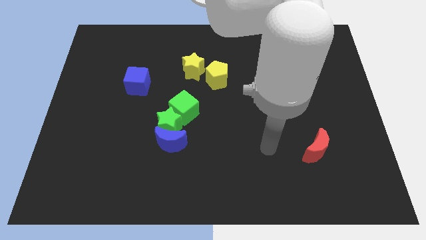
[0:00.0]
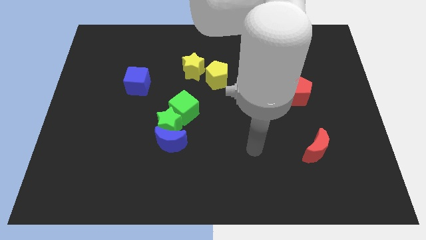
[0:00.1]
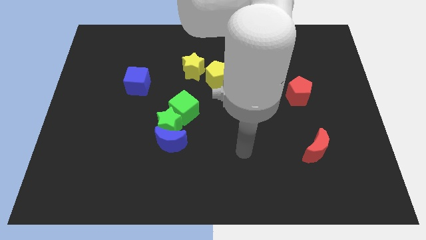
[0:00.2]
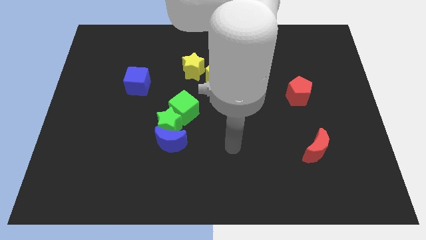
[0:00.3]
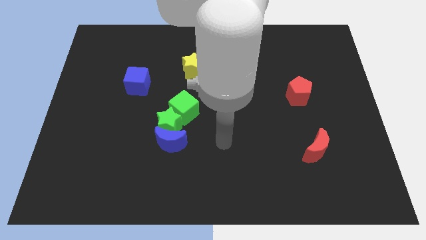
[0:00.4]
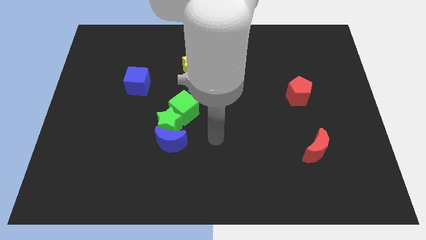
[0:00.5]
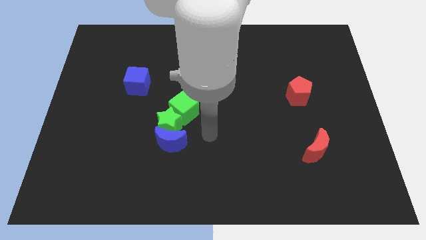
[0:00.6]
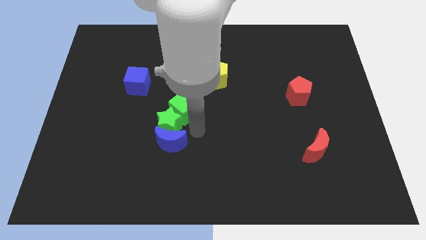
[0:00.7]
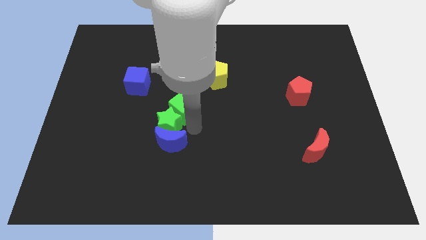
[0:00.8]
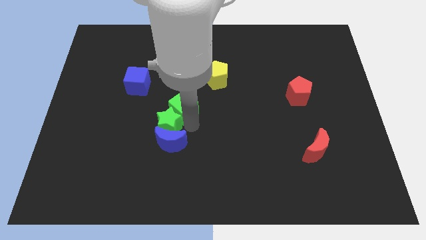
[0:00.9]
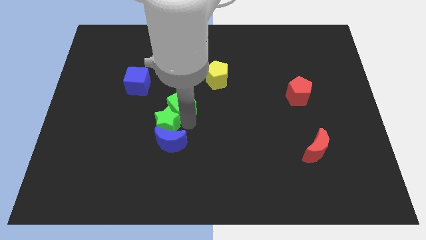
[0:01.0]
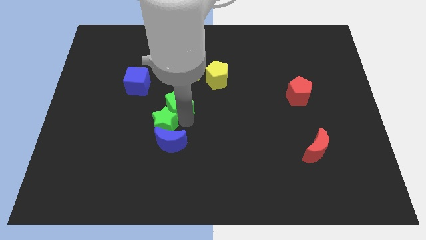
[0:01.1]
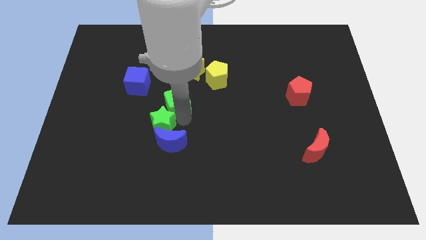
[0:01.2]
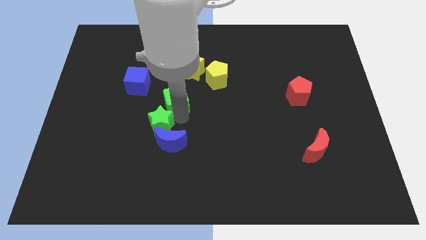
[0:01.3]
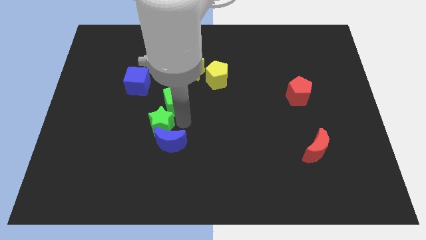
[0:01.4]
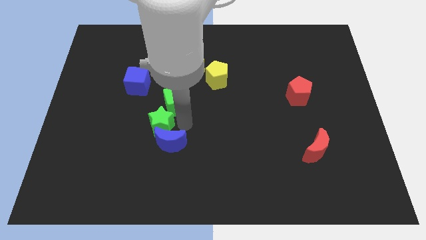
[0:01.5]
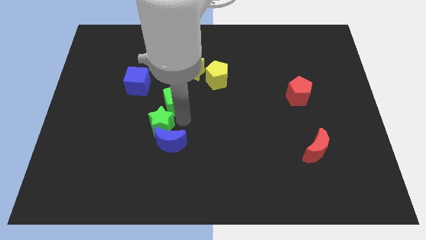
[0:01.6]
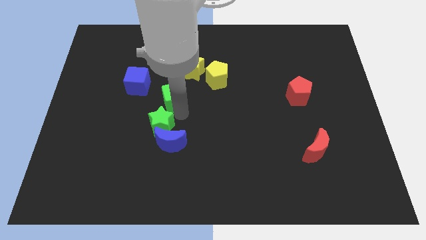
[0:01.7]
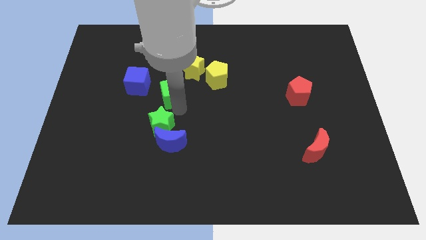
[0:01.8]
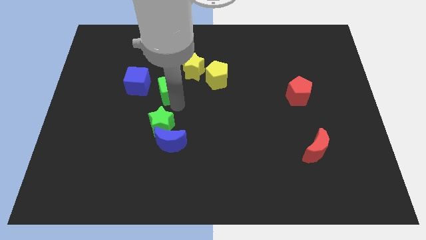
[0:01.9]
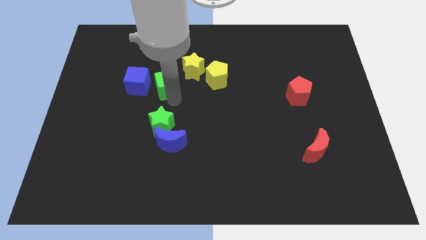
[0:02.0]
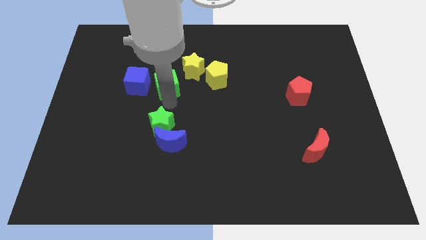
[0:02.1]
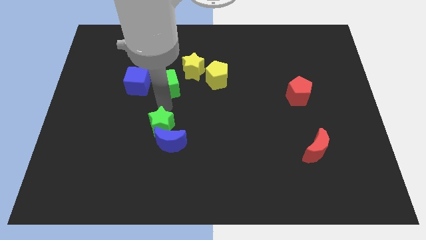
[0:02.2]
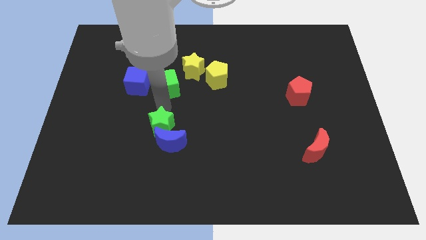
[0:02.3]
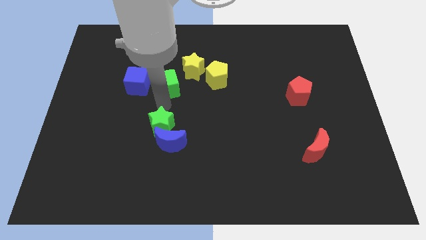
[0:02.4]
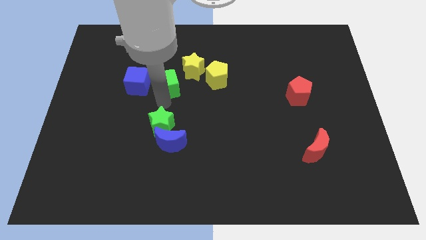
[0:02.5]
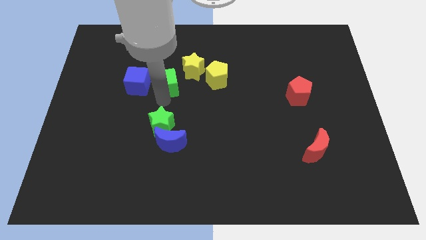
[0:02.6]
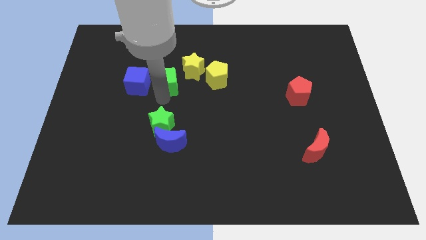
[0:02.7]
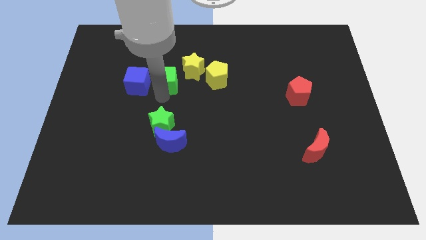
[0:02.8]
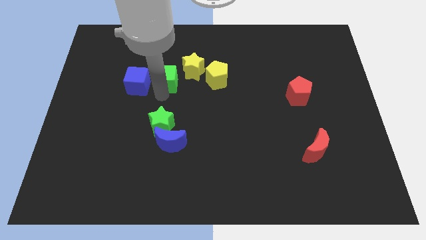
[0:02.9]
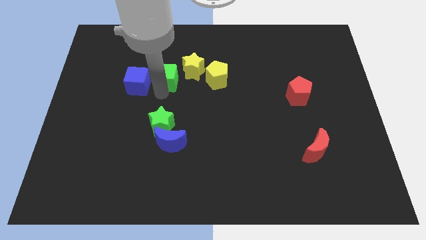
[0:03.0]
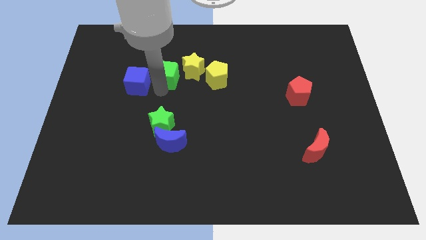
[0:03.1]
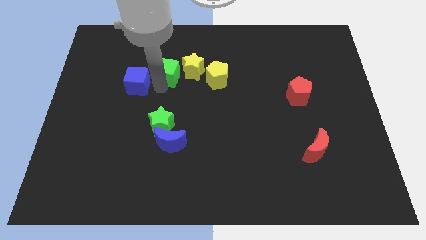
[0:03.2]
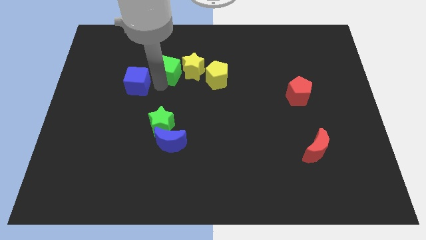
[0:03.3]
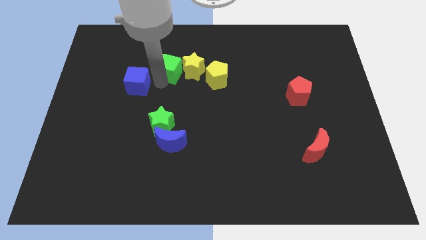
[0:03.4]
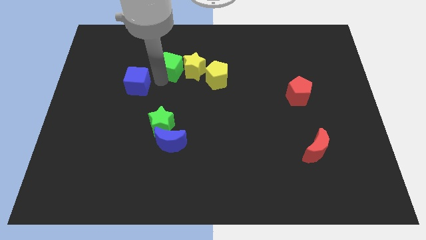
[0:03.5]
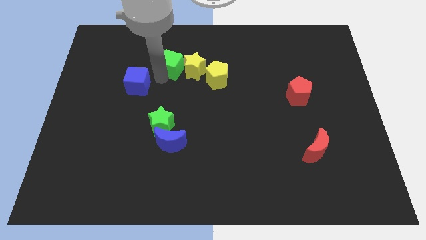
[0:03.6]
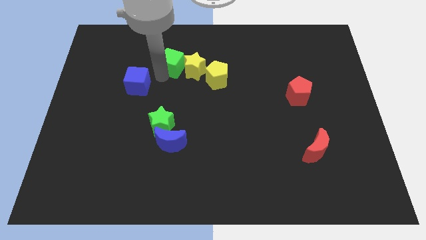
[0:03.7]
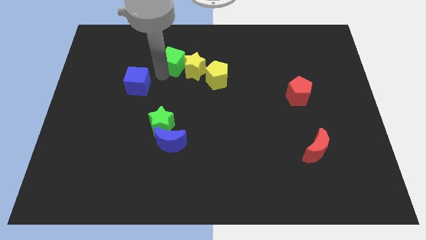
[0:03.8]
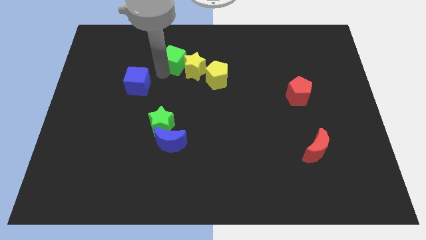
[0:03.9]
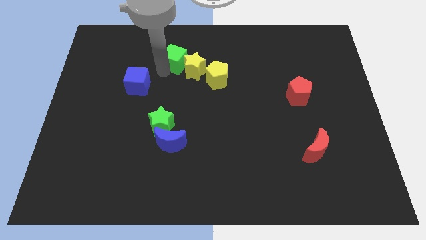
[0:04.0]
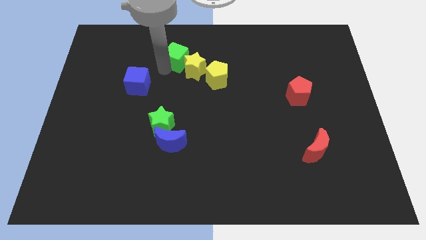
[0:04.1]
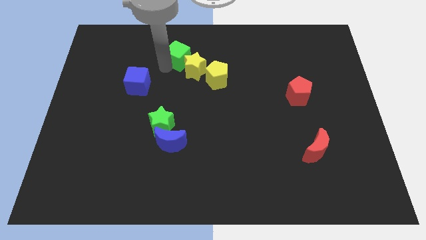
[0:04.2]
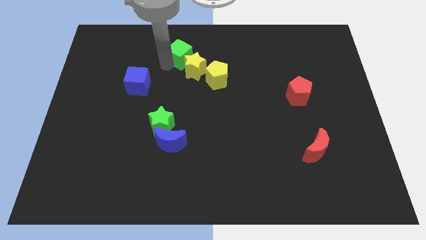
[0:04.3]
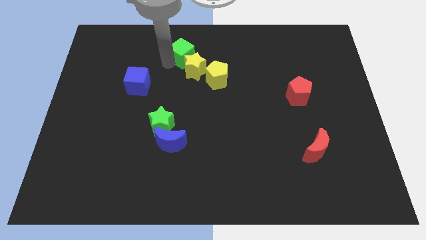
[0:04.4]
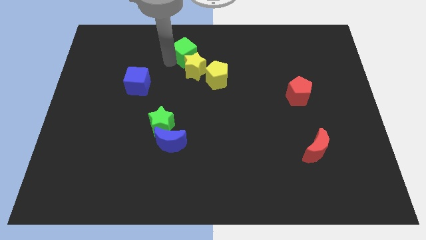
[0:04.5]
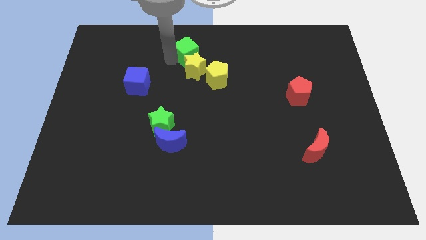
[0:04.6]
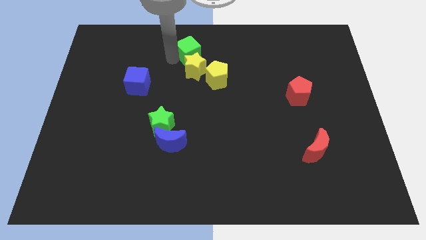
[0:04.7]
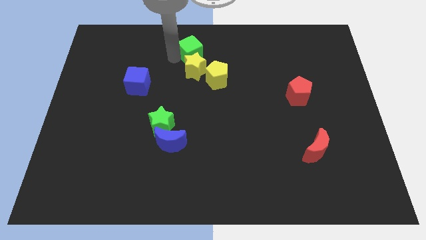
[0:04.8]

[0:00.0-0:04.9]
move the green cube to the towards your base

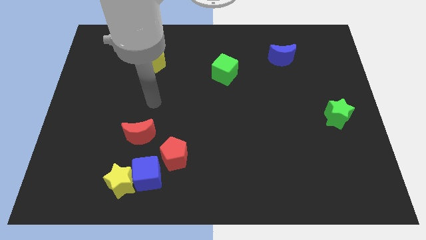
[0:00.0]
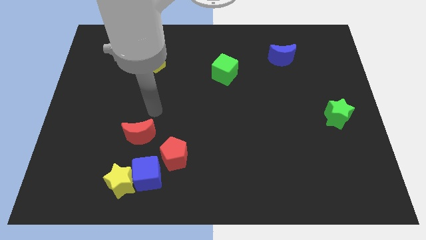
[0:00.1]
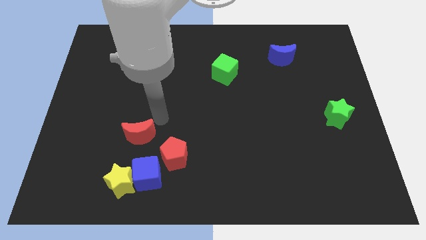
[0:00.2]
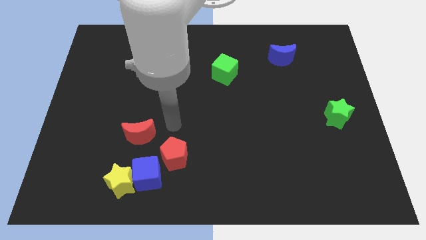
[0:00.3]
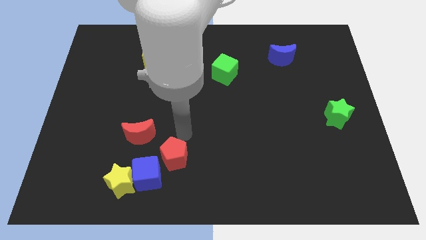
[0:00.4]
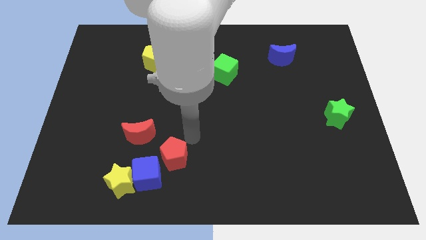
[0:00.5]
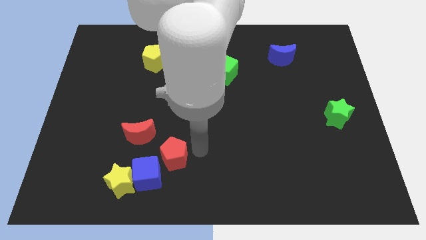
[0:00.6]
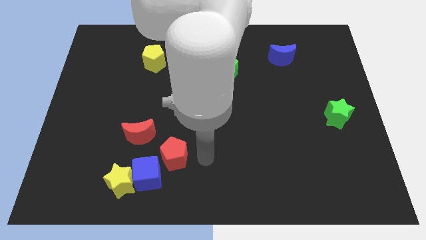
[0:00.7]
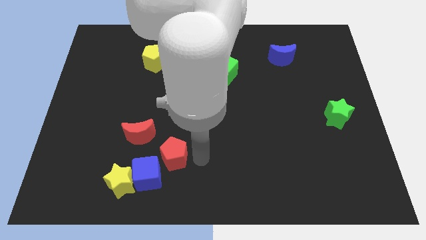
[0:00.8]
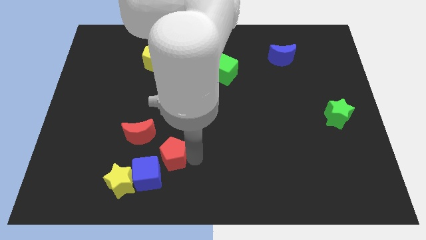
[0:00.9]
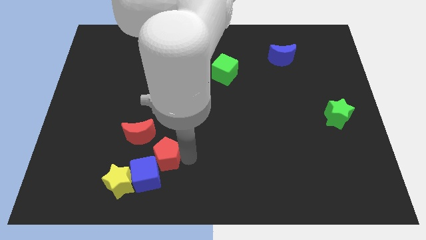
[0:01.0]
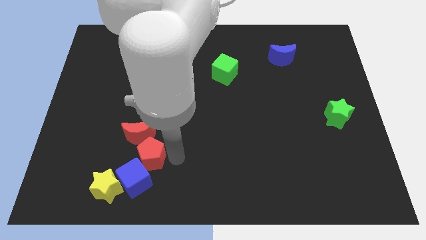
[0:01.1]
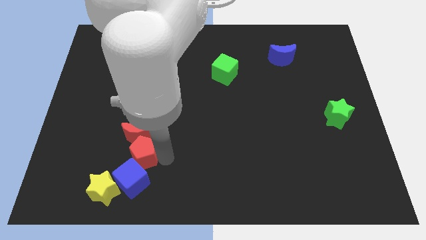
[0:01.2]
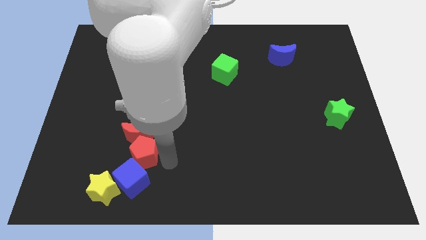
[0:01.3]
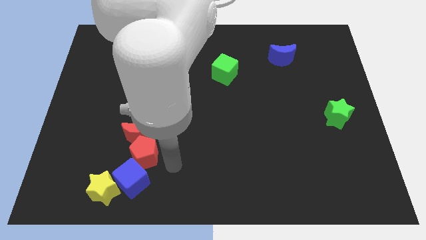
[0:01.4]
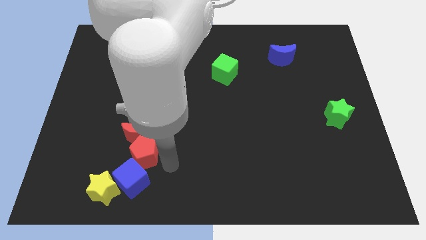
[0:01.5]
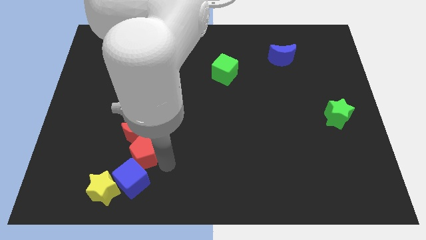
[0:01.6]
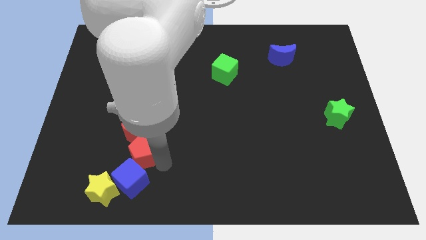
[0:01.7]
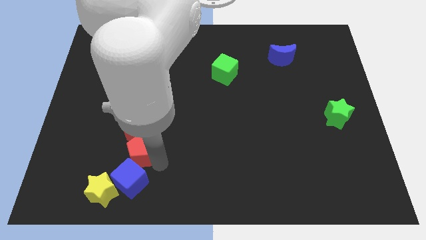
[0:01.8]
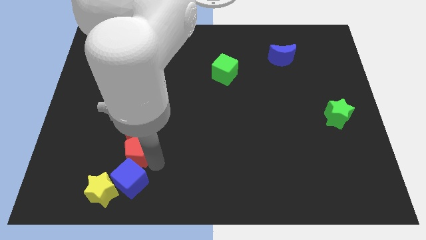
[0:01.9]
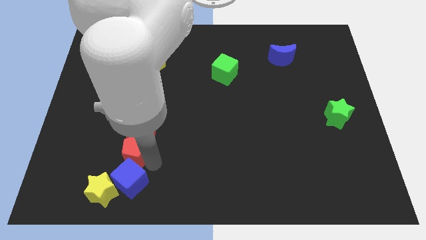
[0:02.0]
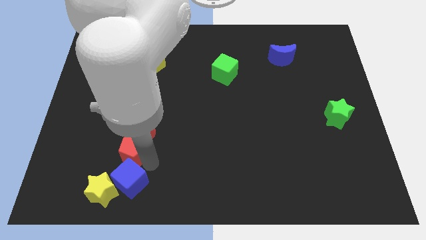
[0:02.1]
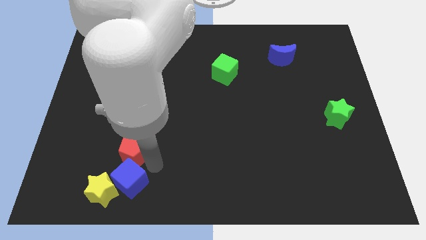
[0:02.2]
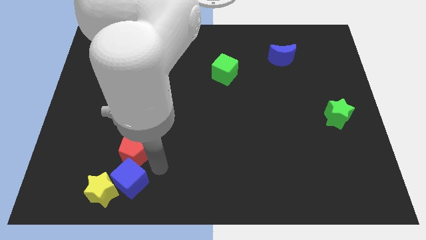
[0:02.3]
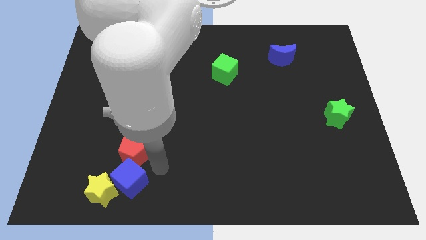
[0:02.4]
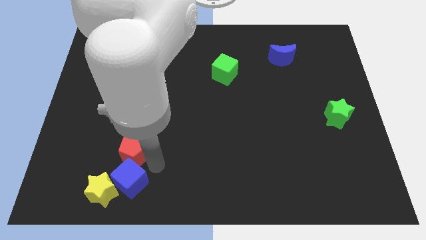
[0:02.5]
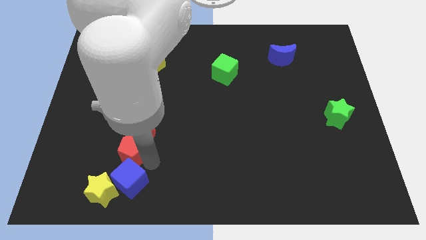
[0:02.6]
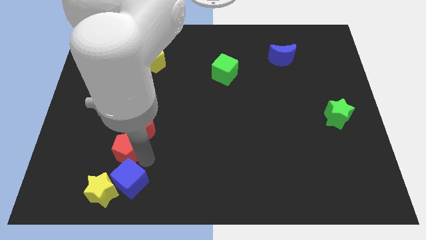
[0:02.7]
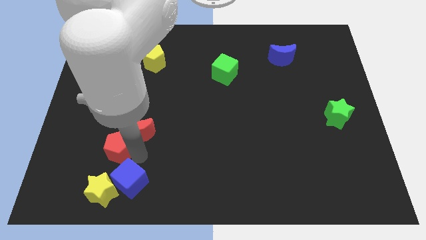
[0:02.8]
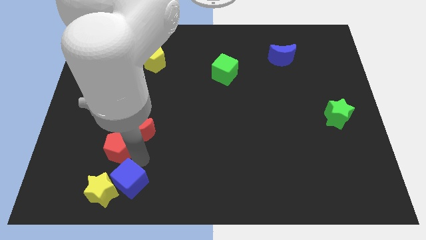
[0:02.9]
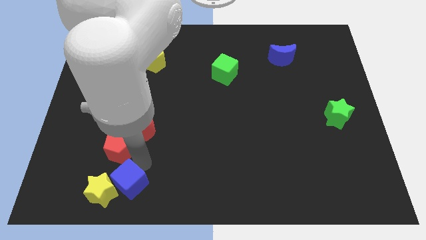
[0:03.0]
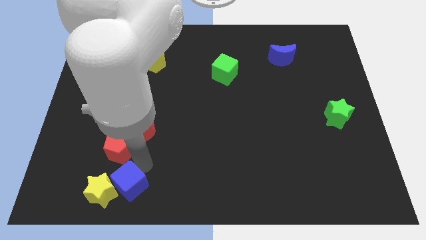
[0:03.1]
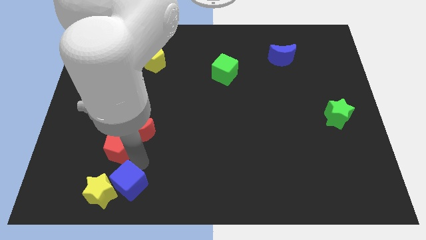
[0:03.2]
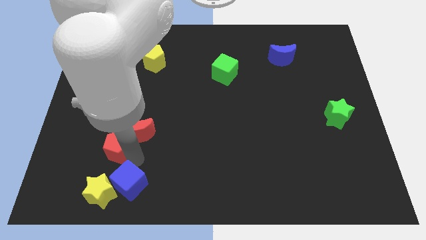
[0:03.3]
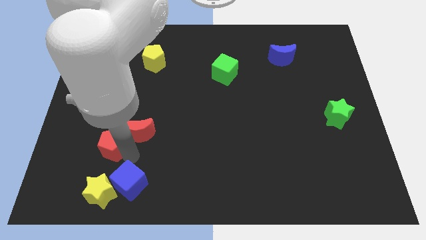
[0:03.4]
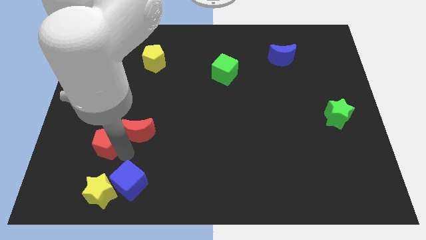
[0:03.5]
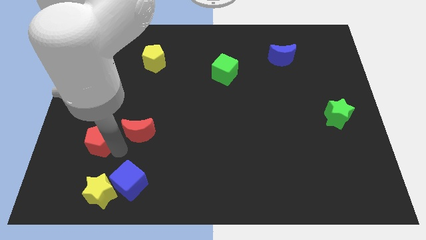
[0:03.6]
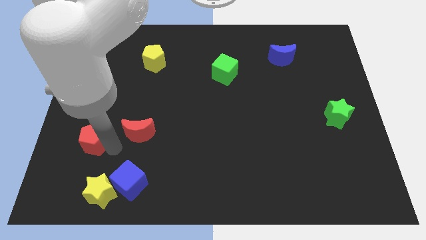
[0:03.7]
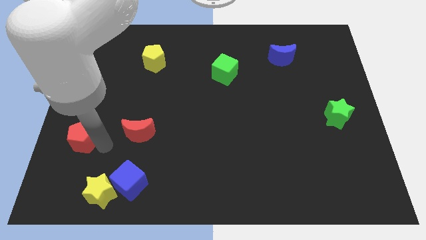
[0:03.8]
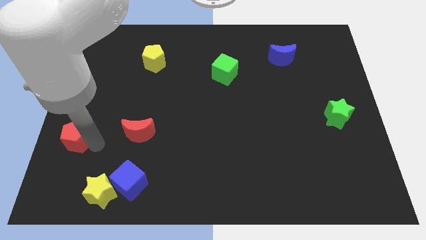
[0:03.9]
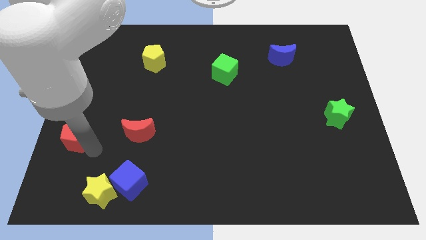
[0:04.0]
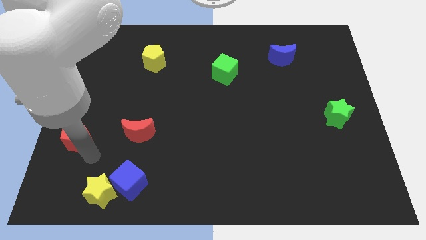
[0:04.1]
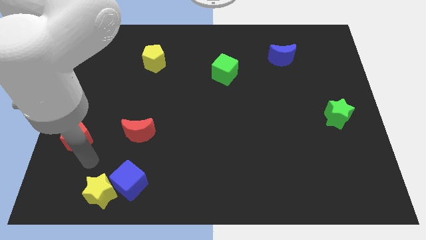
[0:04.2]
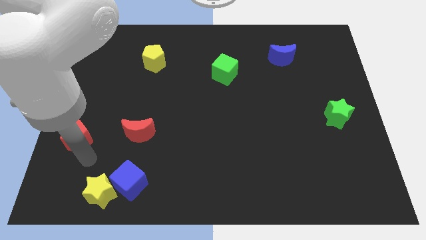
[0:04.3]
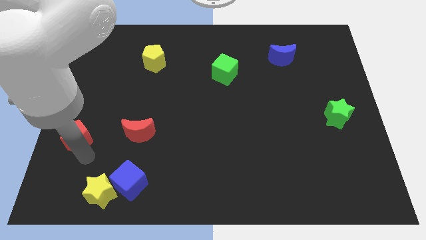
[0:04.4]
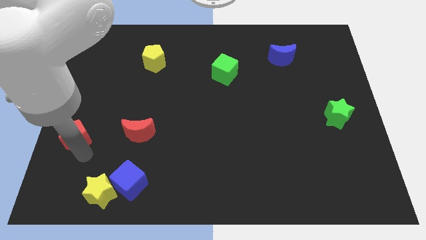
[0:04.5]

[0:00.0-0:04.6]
put the red pentagon to the left side
